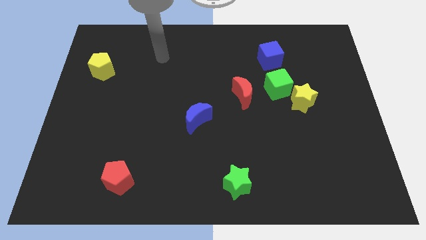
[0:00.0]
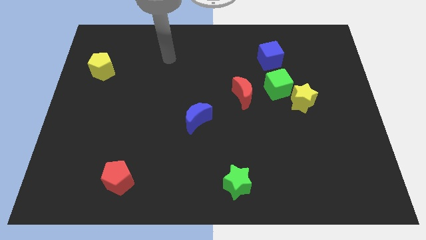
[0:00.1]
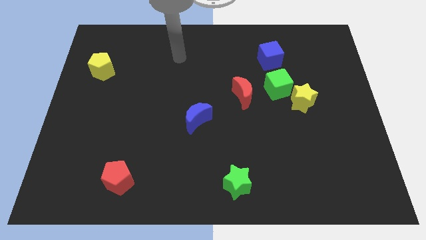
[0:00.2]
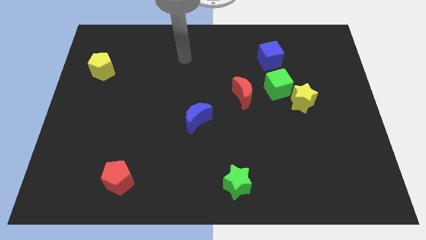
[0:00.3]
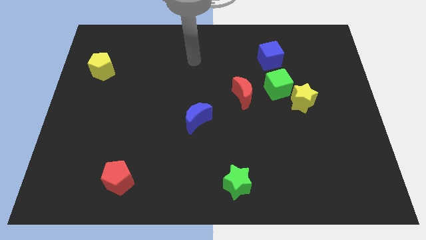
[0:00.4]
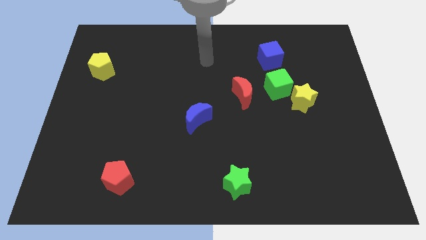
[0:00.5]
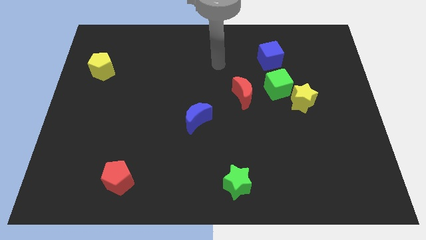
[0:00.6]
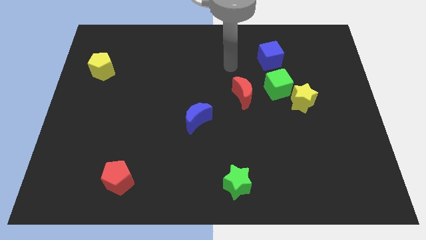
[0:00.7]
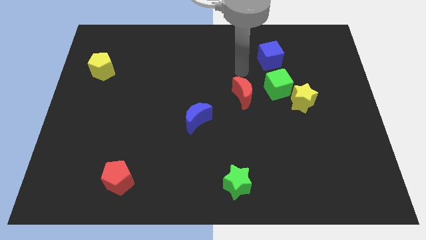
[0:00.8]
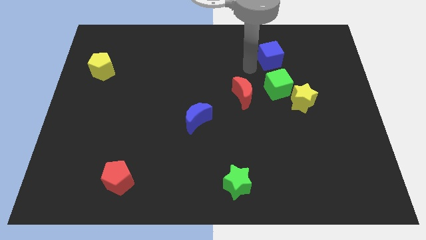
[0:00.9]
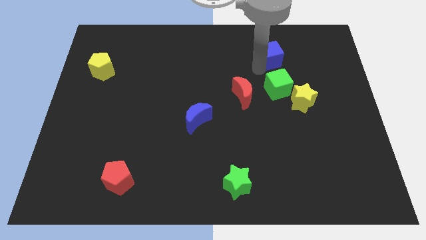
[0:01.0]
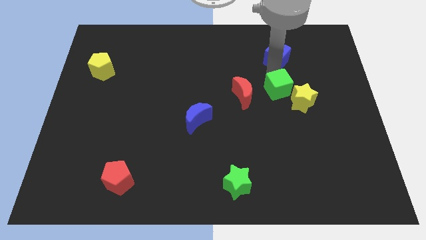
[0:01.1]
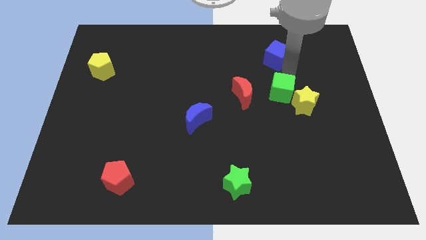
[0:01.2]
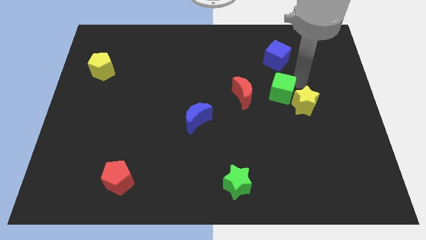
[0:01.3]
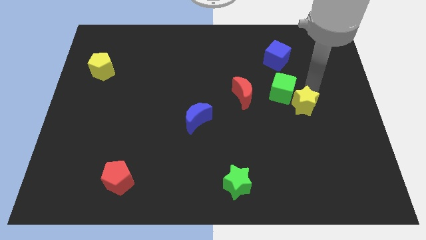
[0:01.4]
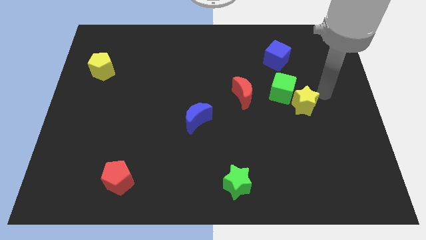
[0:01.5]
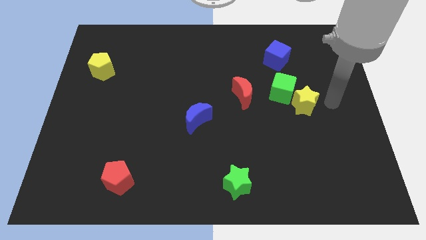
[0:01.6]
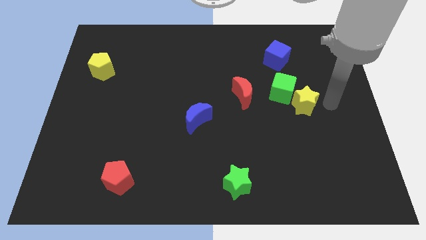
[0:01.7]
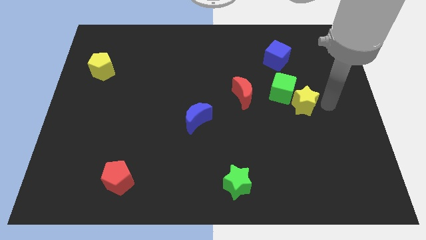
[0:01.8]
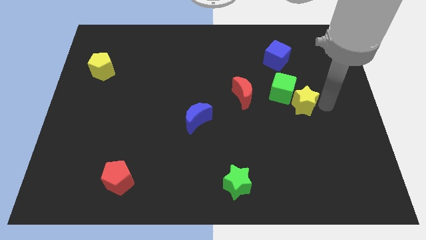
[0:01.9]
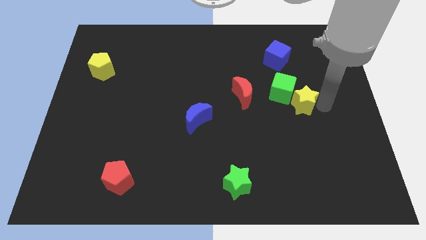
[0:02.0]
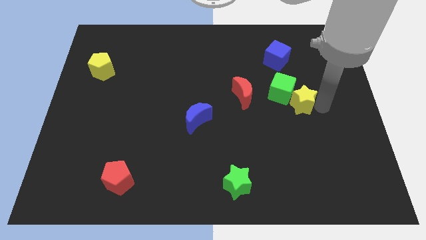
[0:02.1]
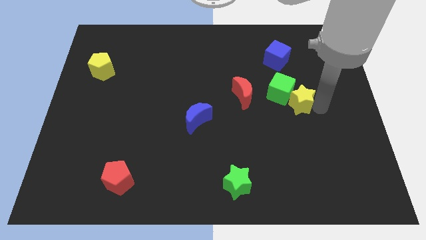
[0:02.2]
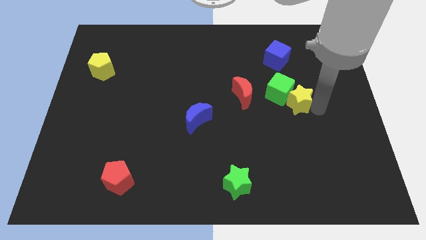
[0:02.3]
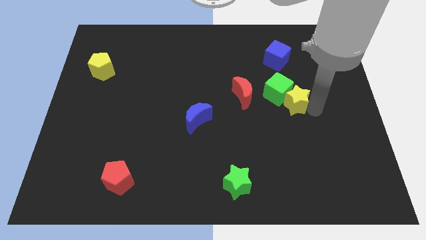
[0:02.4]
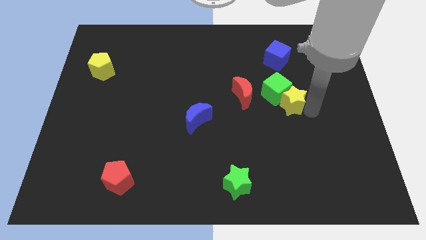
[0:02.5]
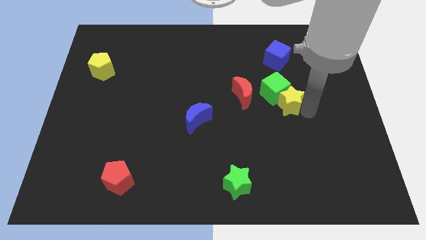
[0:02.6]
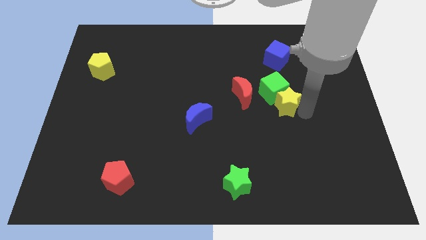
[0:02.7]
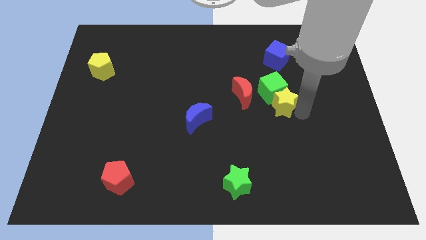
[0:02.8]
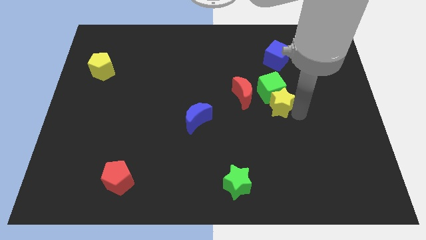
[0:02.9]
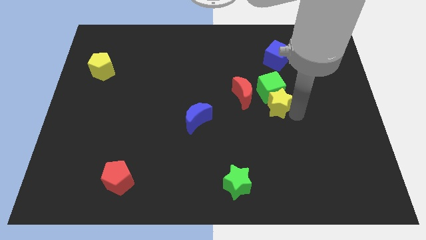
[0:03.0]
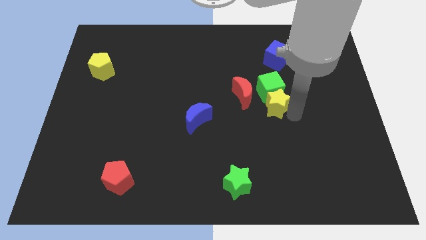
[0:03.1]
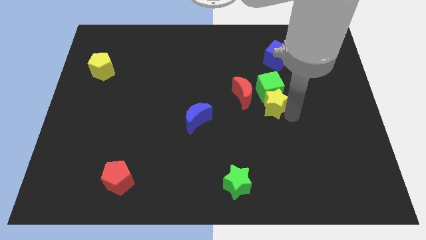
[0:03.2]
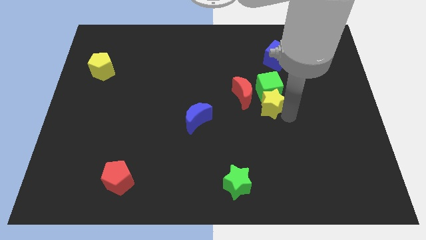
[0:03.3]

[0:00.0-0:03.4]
push the yellow star a little to the left

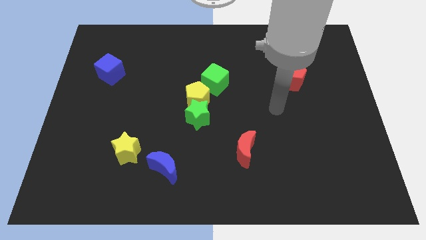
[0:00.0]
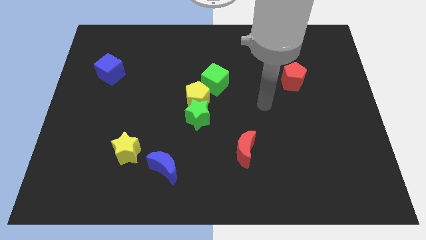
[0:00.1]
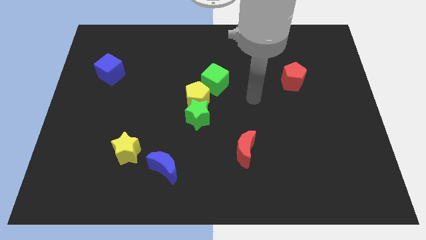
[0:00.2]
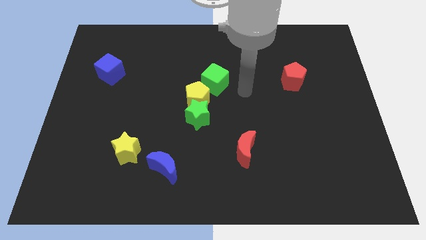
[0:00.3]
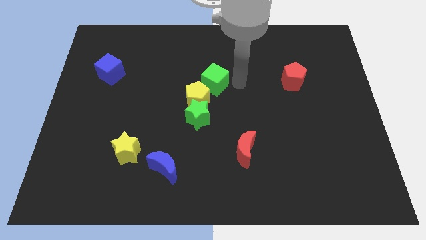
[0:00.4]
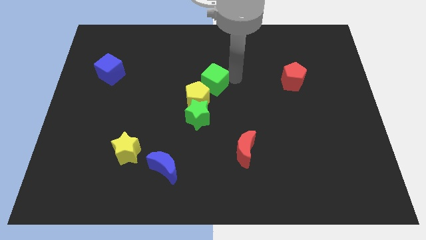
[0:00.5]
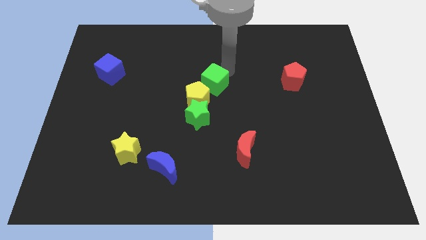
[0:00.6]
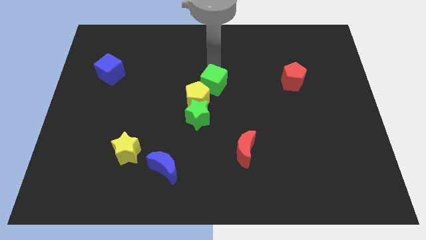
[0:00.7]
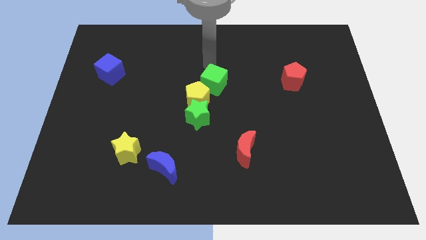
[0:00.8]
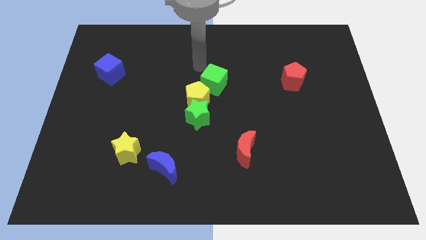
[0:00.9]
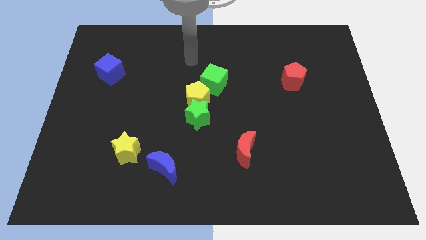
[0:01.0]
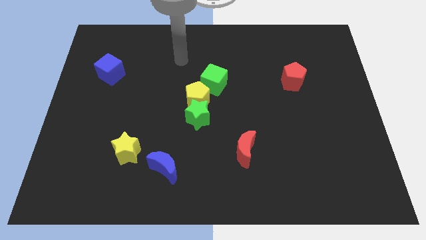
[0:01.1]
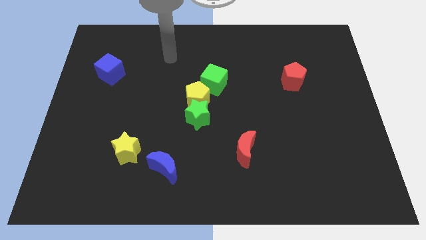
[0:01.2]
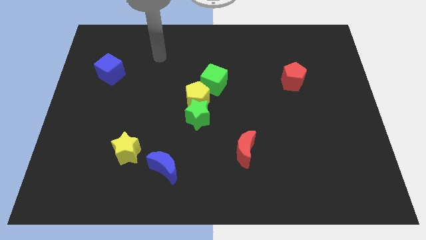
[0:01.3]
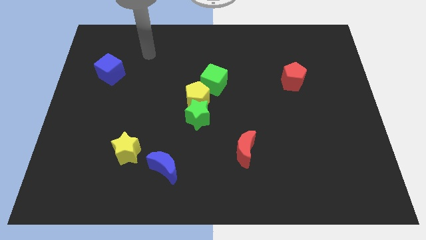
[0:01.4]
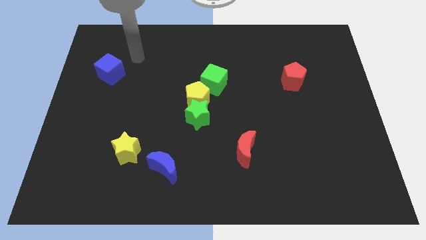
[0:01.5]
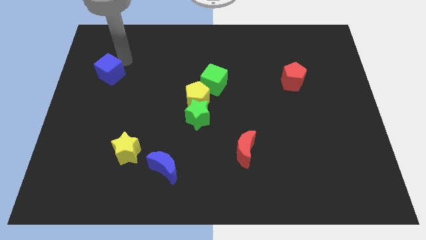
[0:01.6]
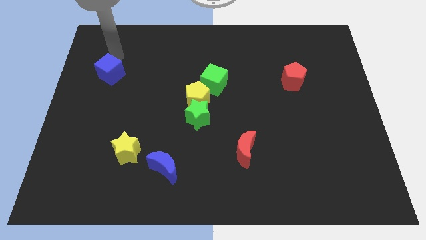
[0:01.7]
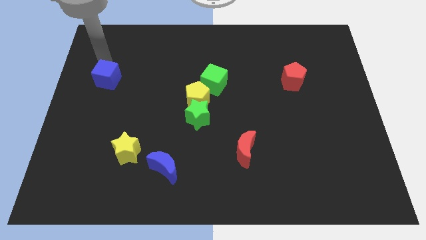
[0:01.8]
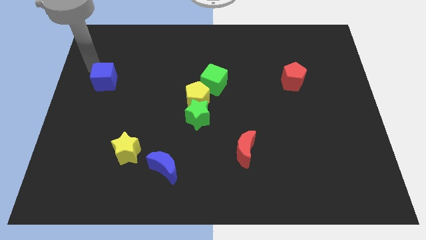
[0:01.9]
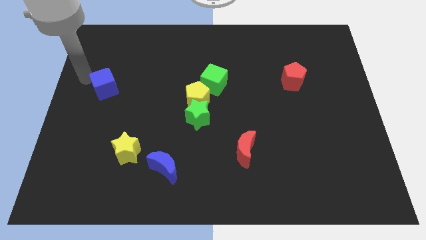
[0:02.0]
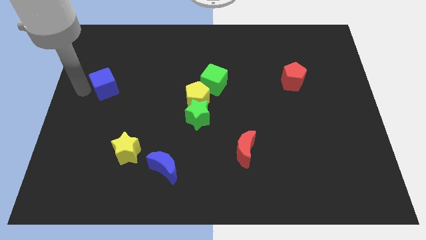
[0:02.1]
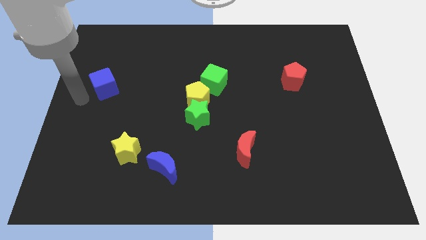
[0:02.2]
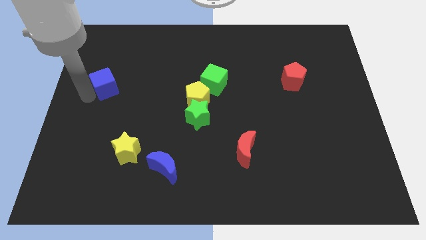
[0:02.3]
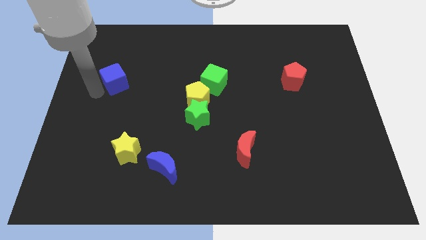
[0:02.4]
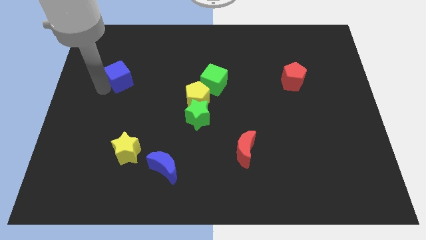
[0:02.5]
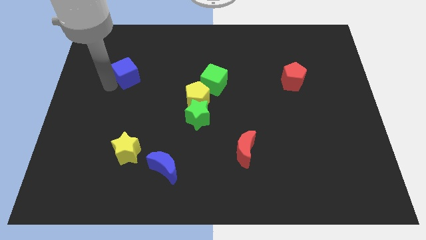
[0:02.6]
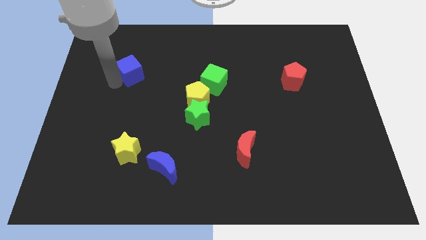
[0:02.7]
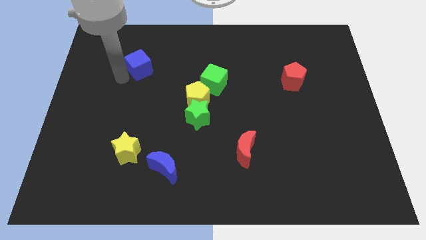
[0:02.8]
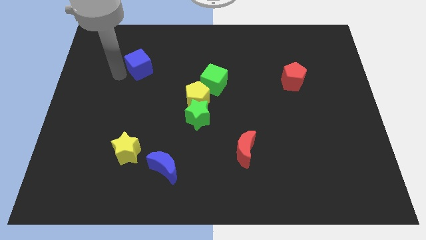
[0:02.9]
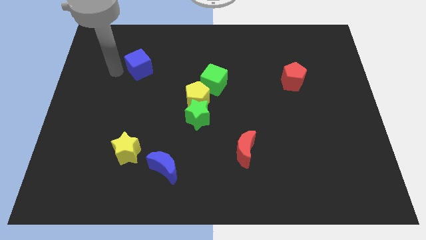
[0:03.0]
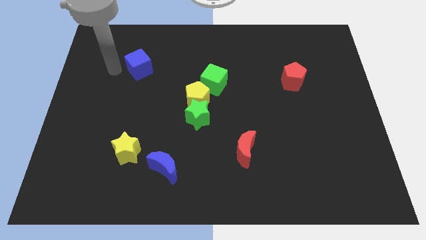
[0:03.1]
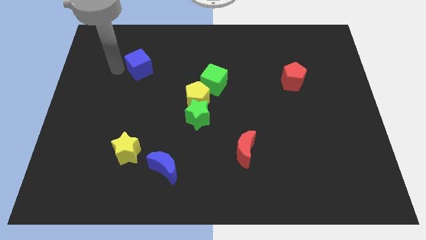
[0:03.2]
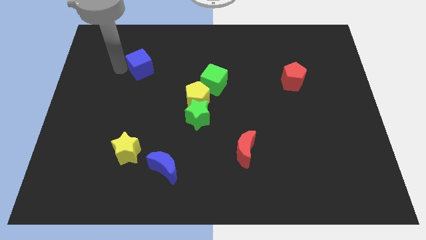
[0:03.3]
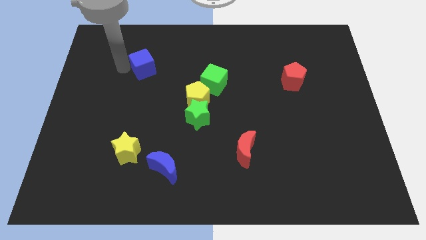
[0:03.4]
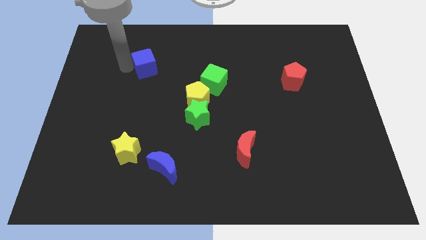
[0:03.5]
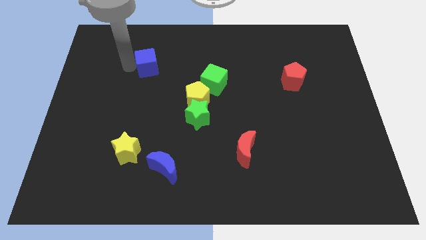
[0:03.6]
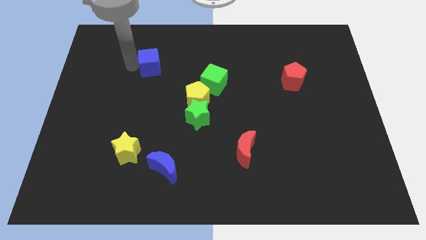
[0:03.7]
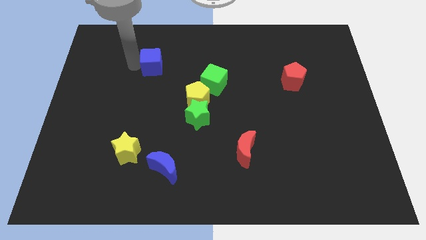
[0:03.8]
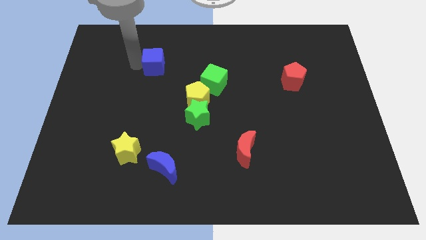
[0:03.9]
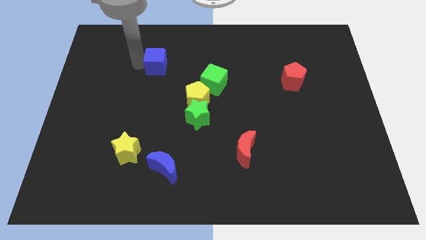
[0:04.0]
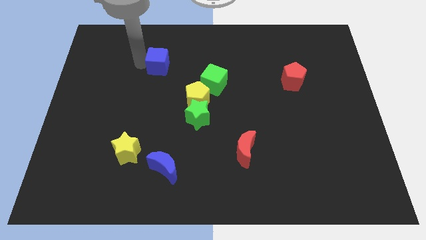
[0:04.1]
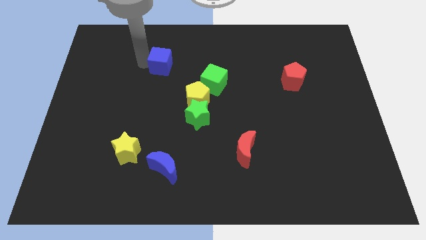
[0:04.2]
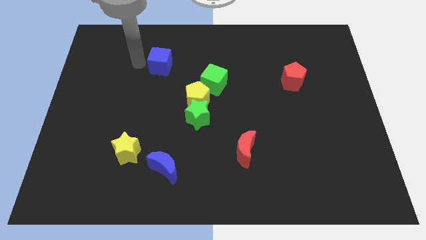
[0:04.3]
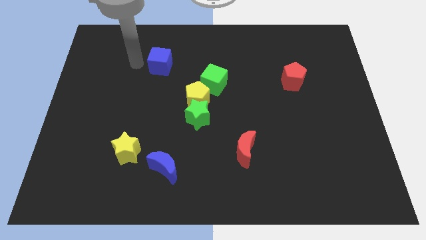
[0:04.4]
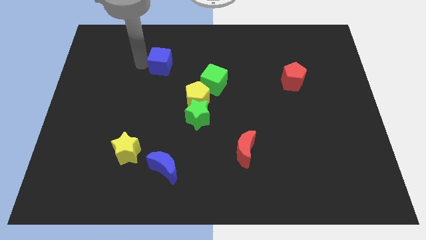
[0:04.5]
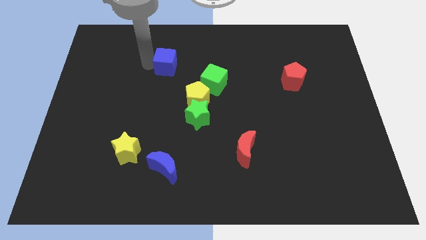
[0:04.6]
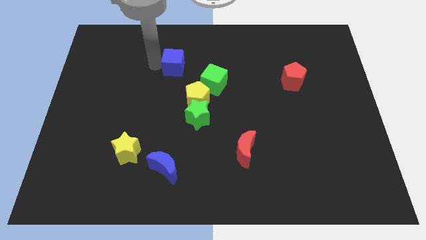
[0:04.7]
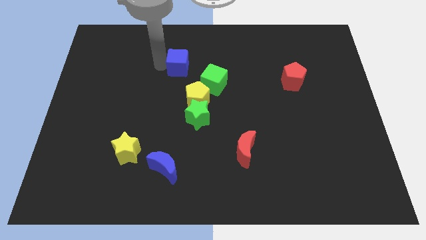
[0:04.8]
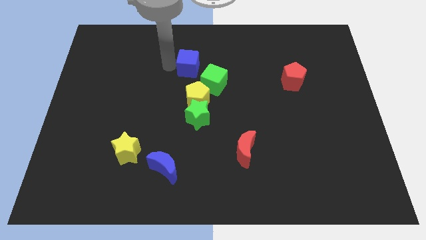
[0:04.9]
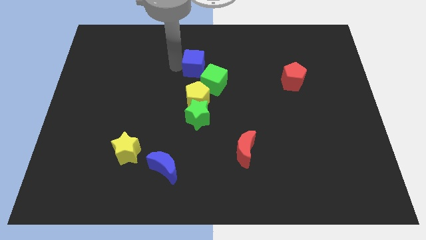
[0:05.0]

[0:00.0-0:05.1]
push the blue cube right
